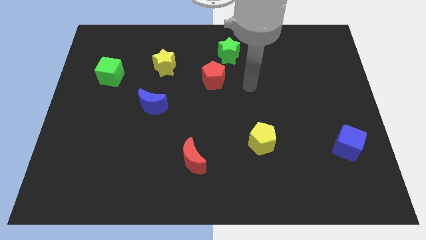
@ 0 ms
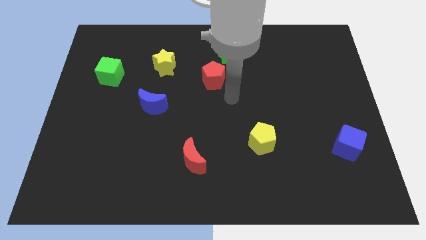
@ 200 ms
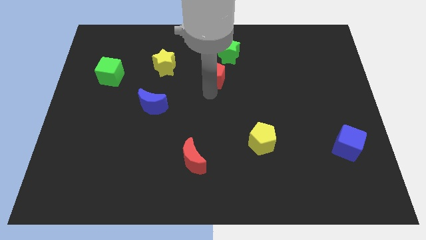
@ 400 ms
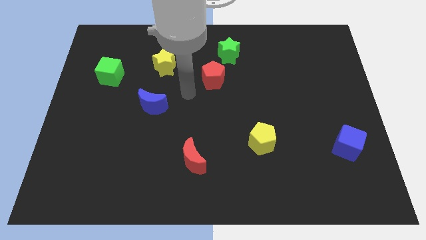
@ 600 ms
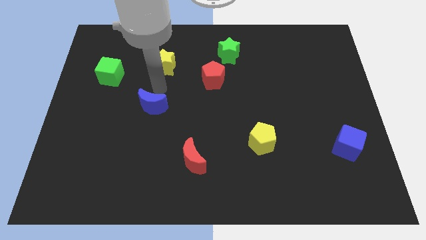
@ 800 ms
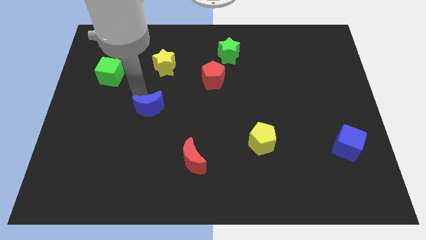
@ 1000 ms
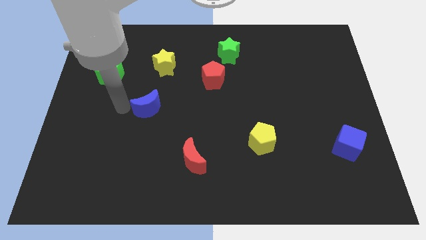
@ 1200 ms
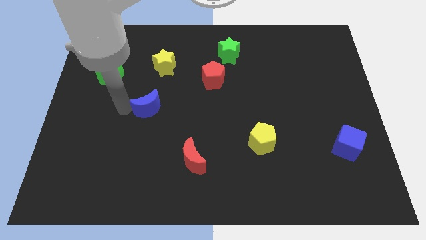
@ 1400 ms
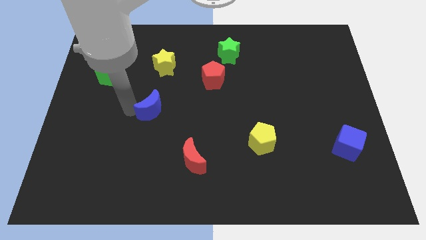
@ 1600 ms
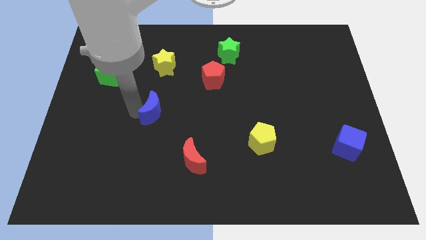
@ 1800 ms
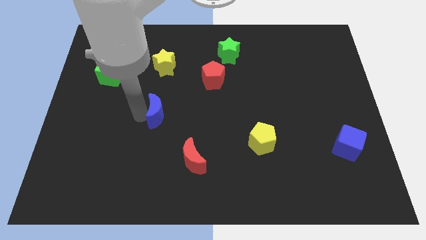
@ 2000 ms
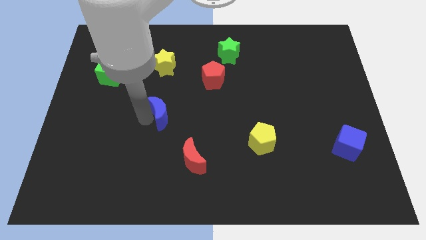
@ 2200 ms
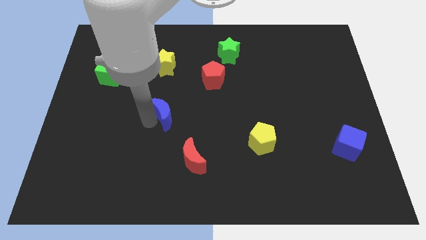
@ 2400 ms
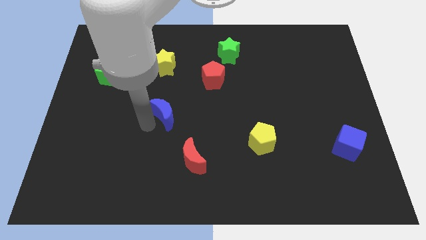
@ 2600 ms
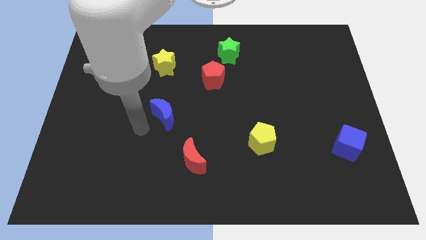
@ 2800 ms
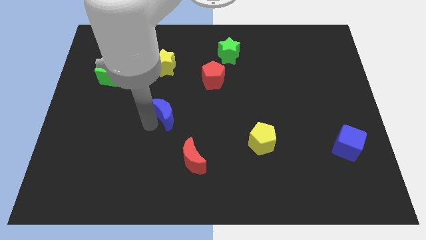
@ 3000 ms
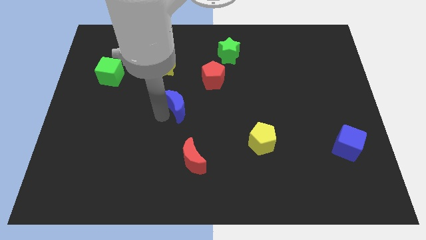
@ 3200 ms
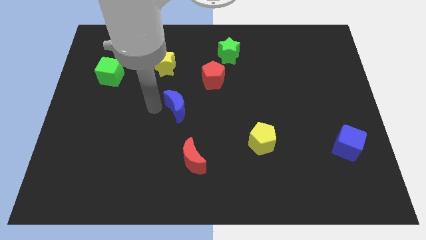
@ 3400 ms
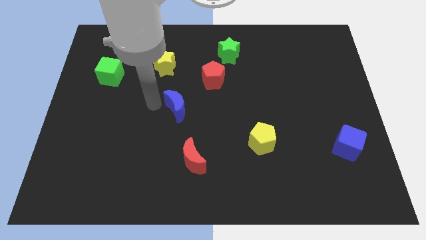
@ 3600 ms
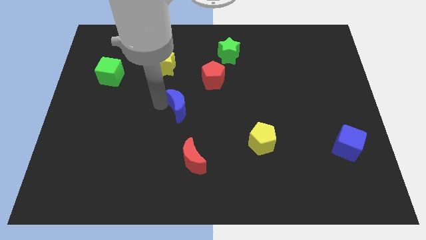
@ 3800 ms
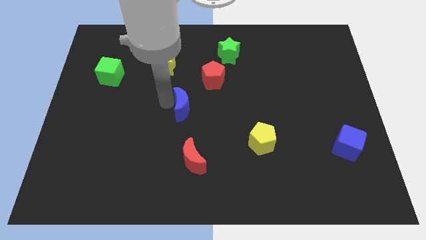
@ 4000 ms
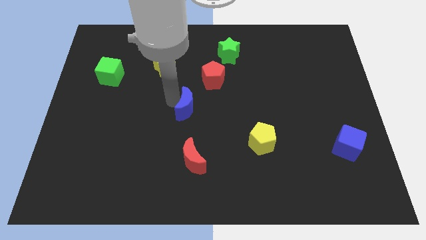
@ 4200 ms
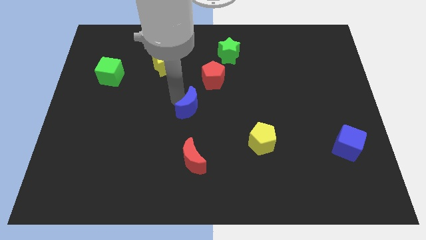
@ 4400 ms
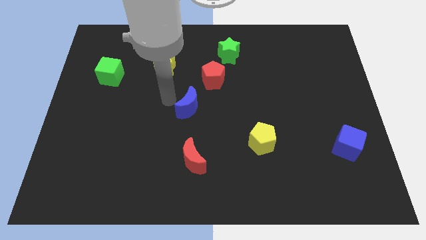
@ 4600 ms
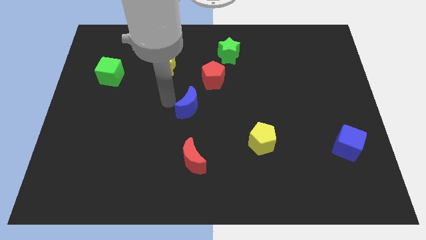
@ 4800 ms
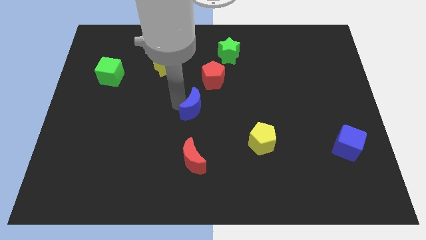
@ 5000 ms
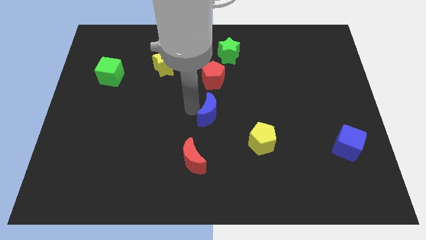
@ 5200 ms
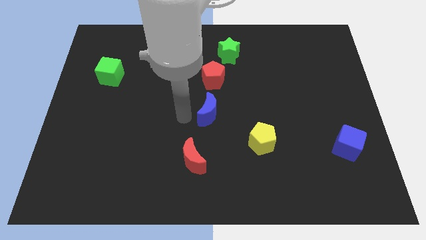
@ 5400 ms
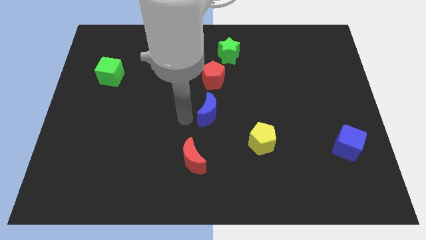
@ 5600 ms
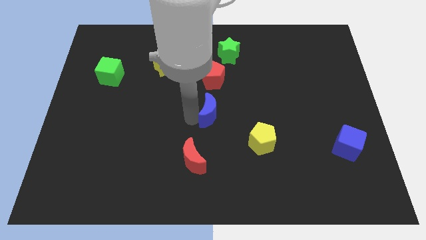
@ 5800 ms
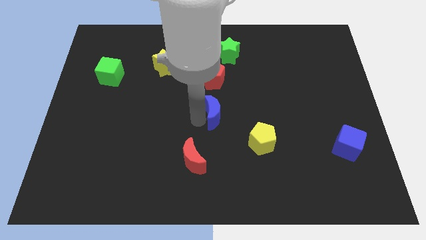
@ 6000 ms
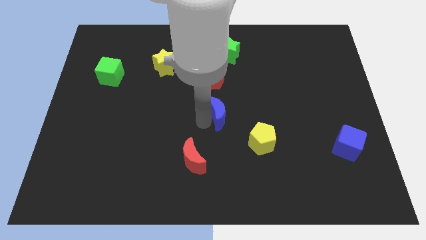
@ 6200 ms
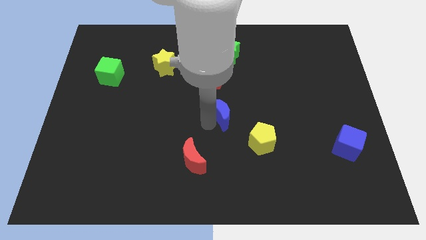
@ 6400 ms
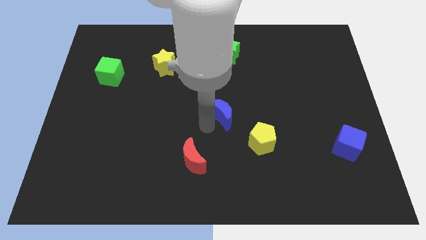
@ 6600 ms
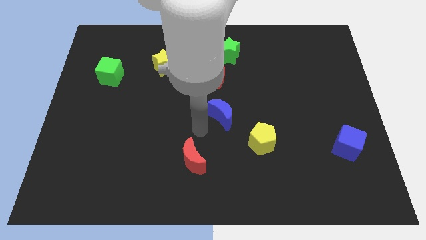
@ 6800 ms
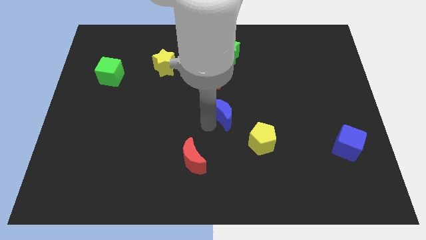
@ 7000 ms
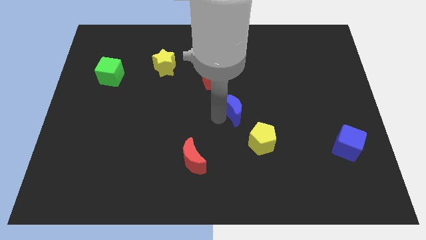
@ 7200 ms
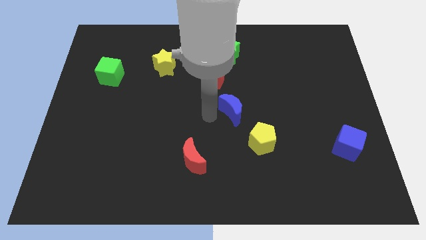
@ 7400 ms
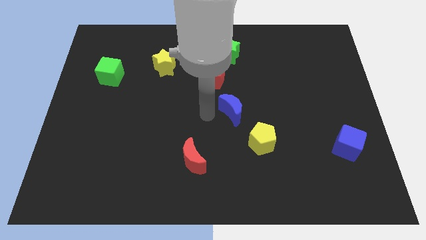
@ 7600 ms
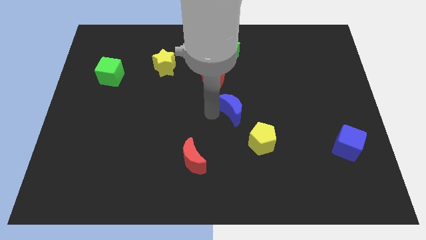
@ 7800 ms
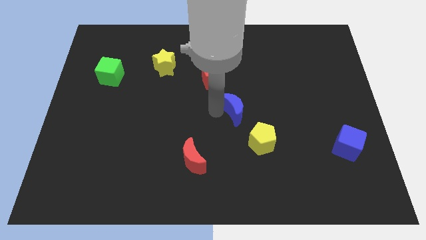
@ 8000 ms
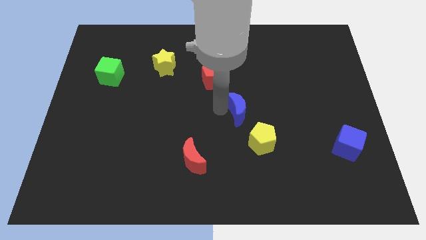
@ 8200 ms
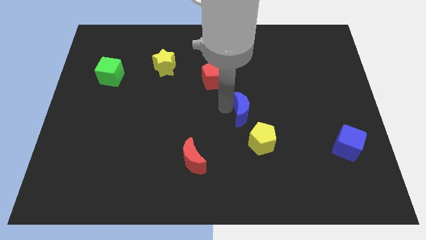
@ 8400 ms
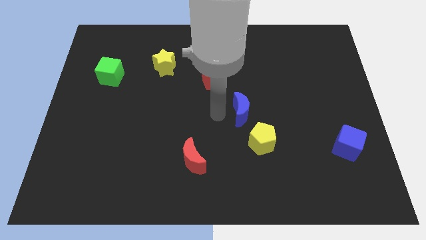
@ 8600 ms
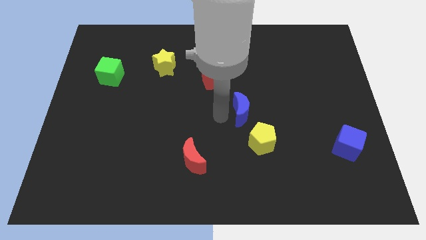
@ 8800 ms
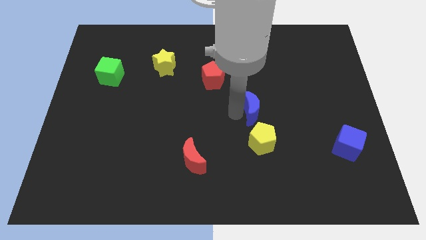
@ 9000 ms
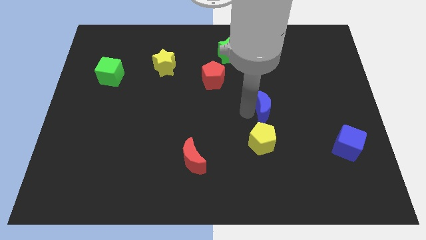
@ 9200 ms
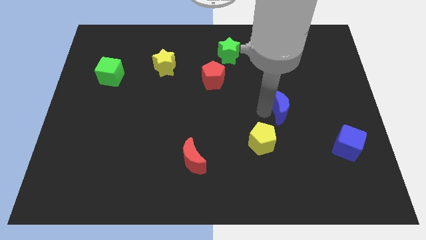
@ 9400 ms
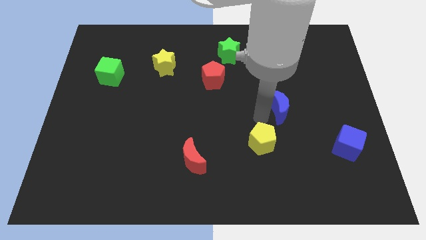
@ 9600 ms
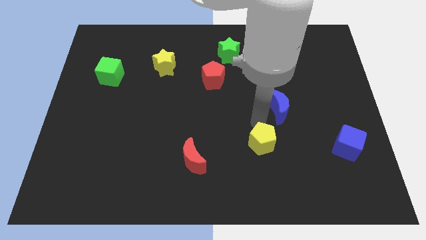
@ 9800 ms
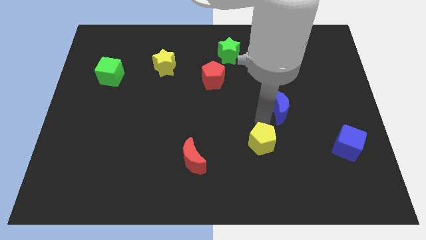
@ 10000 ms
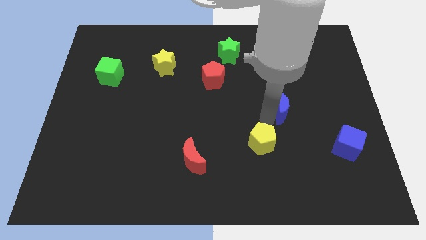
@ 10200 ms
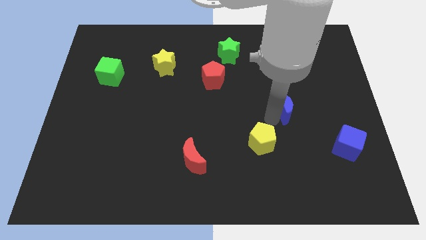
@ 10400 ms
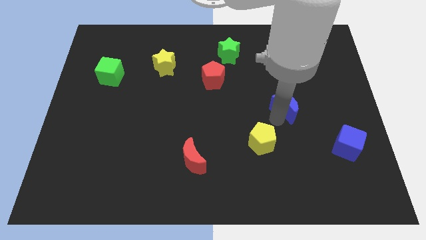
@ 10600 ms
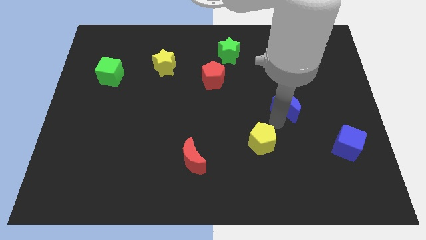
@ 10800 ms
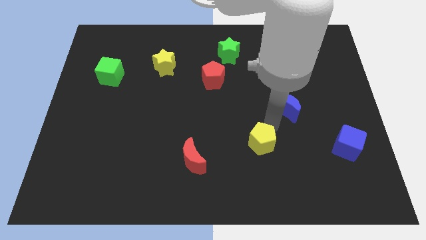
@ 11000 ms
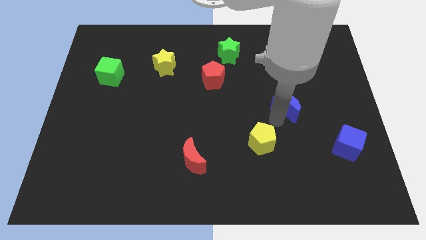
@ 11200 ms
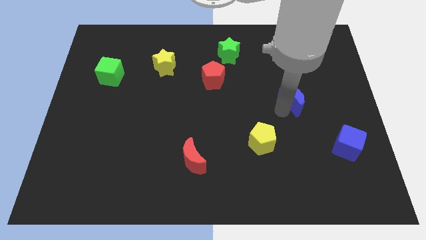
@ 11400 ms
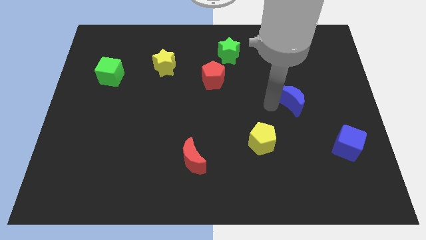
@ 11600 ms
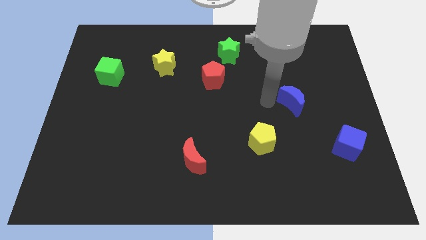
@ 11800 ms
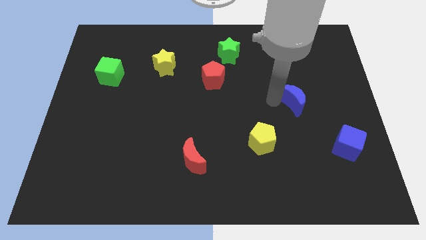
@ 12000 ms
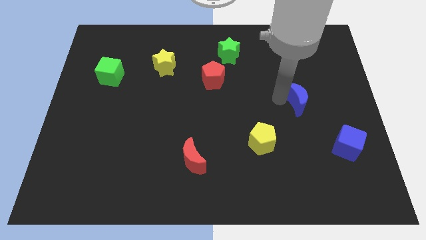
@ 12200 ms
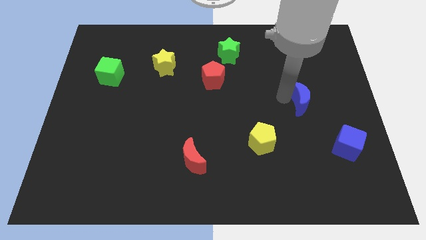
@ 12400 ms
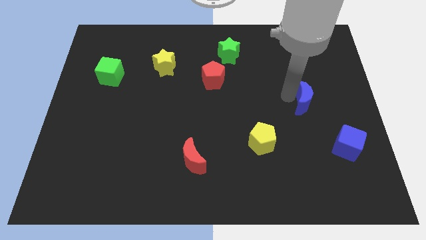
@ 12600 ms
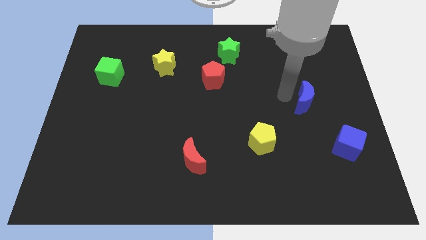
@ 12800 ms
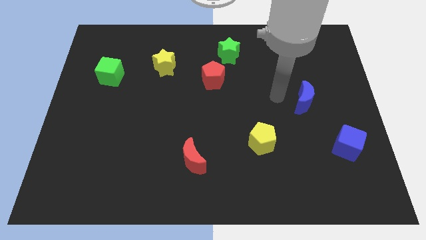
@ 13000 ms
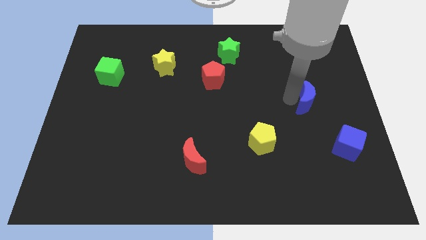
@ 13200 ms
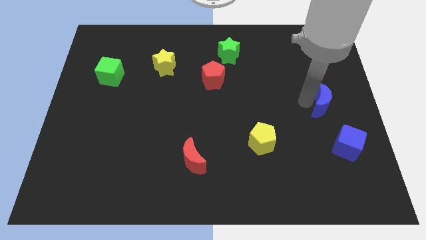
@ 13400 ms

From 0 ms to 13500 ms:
push the blue moon to the right side of the board
